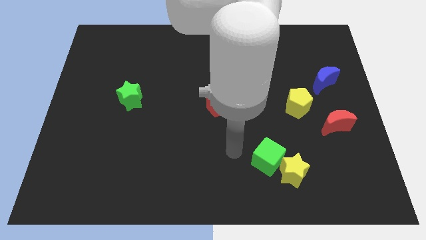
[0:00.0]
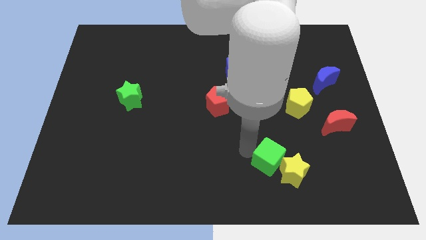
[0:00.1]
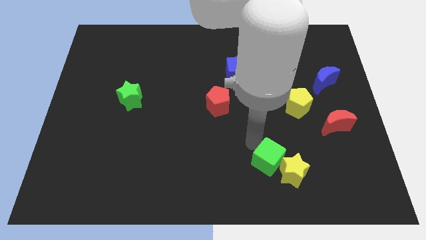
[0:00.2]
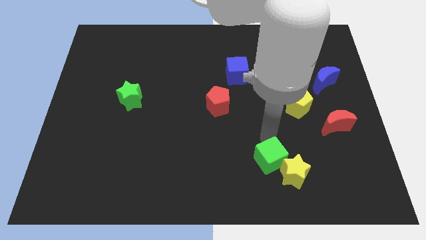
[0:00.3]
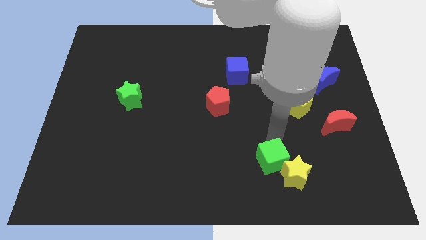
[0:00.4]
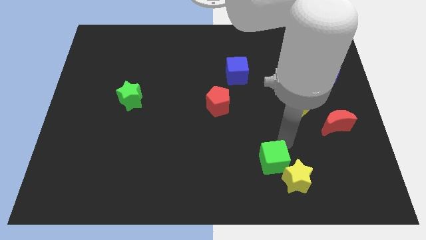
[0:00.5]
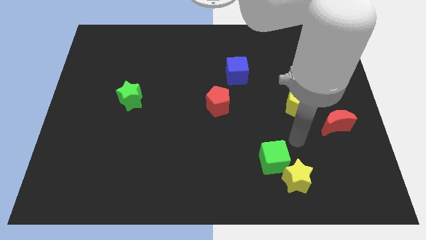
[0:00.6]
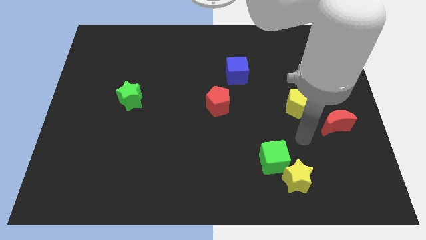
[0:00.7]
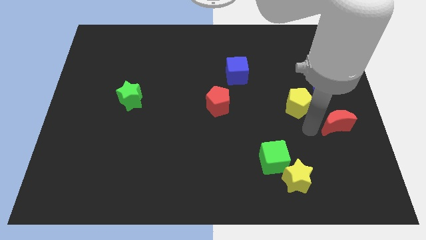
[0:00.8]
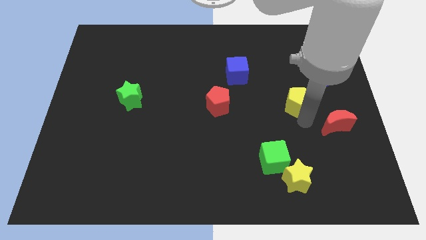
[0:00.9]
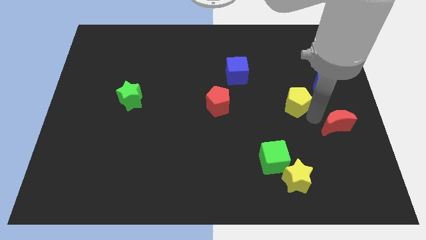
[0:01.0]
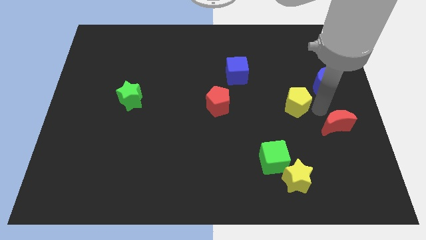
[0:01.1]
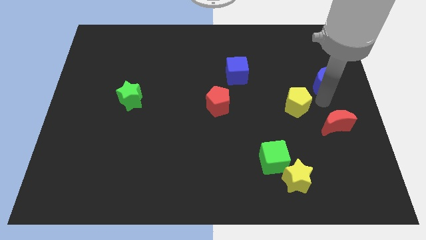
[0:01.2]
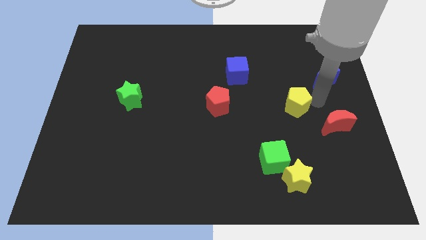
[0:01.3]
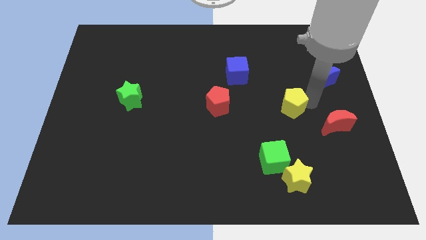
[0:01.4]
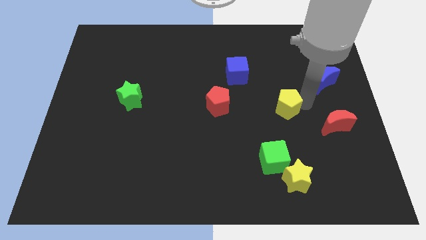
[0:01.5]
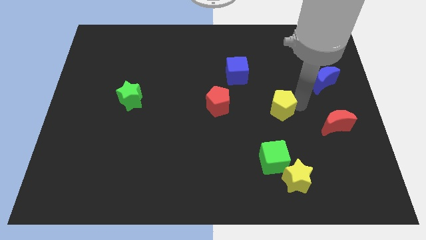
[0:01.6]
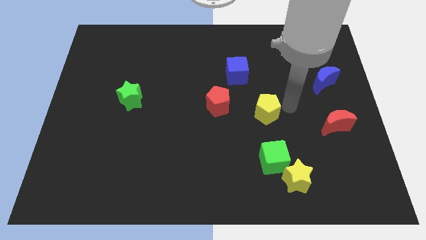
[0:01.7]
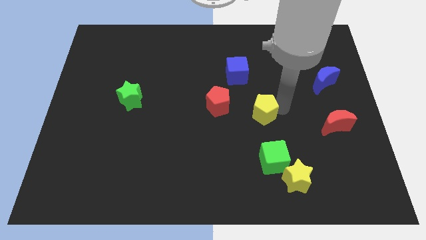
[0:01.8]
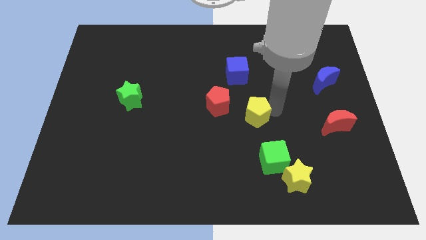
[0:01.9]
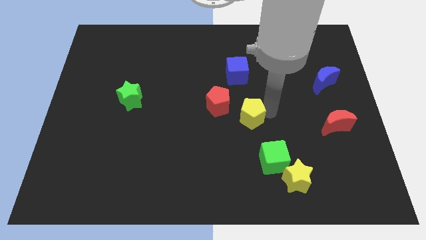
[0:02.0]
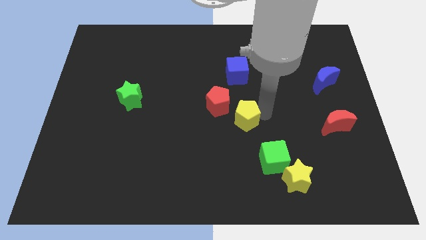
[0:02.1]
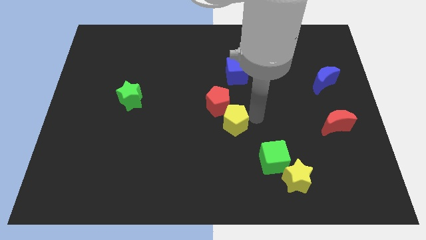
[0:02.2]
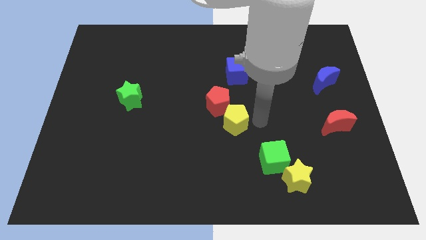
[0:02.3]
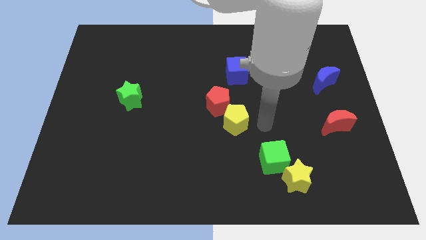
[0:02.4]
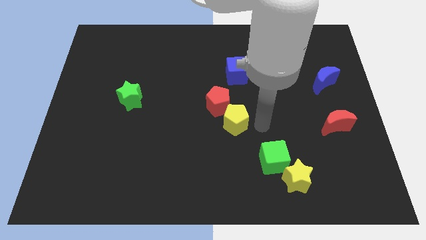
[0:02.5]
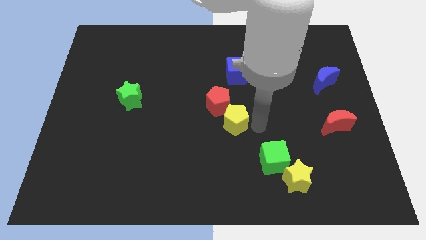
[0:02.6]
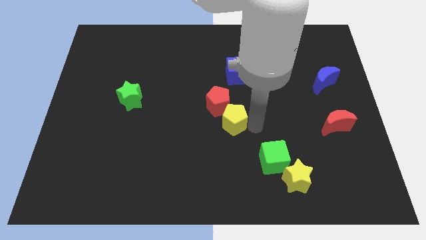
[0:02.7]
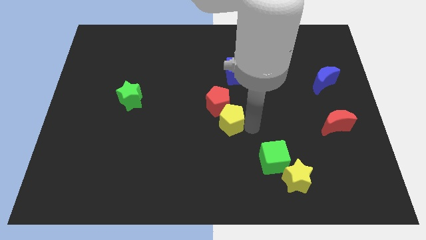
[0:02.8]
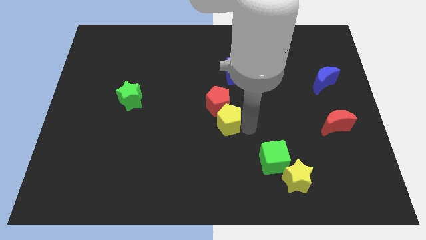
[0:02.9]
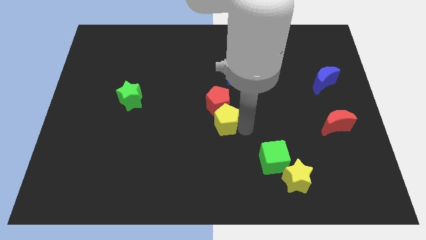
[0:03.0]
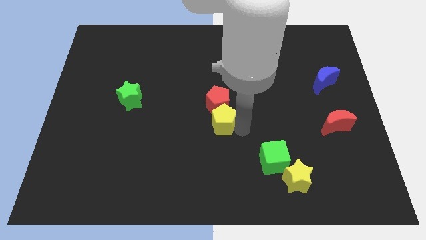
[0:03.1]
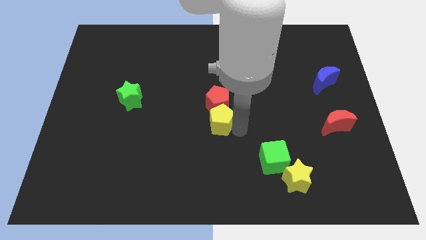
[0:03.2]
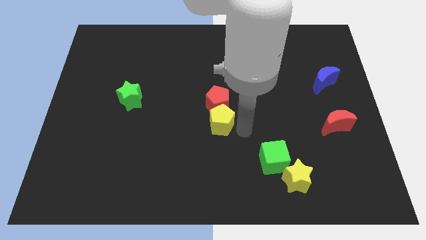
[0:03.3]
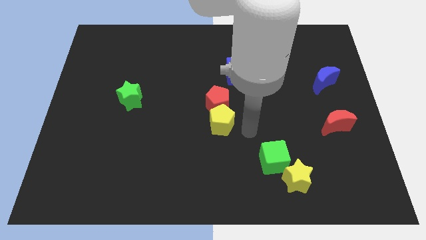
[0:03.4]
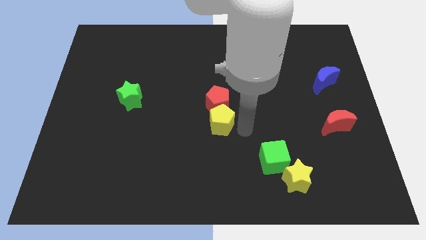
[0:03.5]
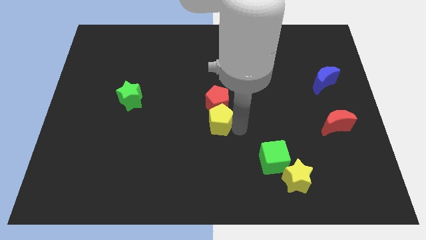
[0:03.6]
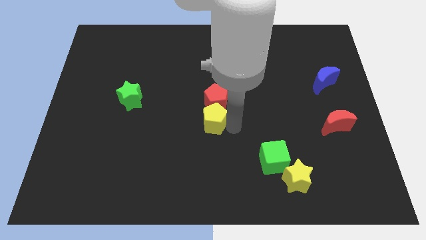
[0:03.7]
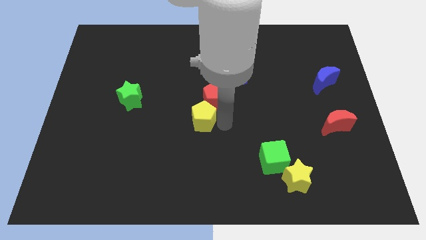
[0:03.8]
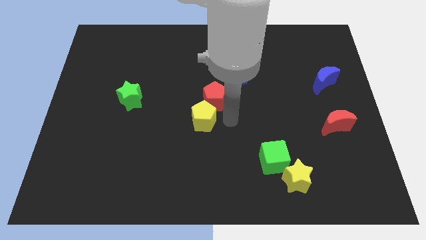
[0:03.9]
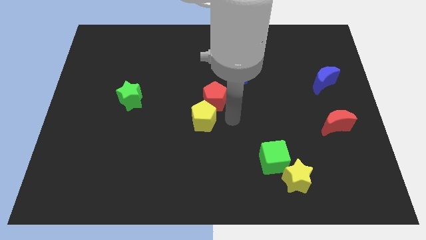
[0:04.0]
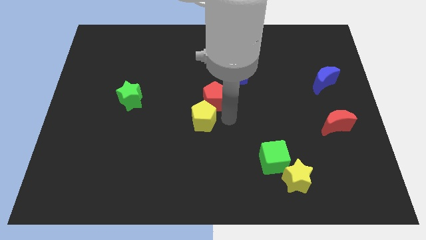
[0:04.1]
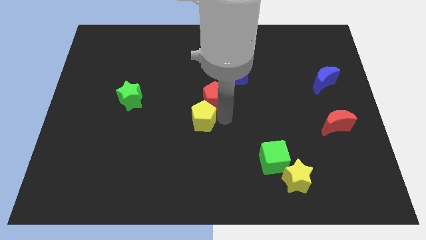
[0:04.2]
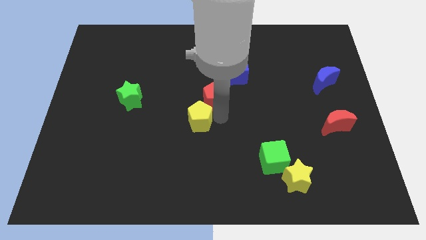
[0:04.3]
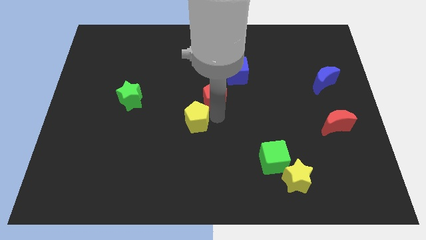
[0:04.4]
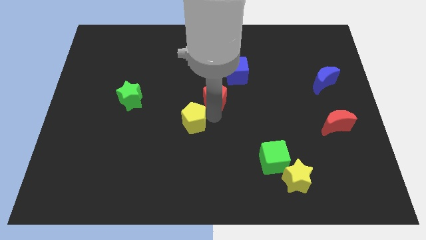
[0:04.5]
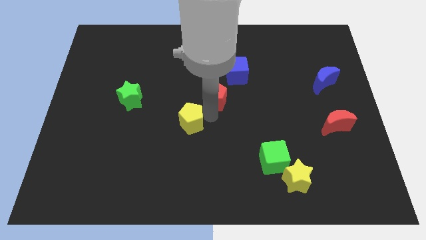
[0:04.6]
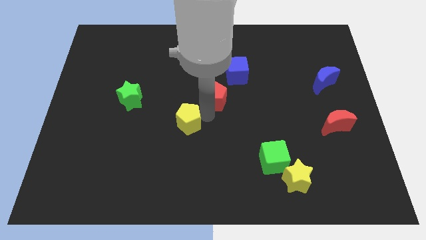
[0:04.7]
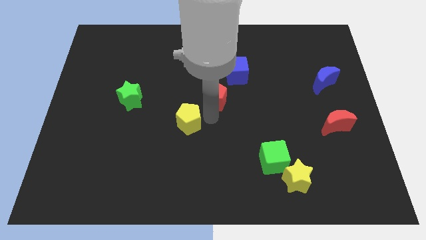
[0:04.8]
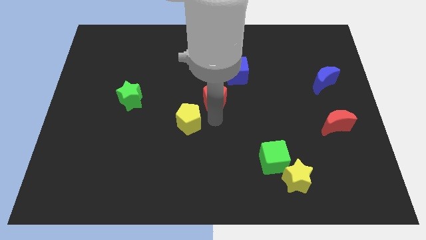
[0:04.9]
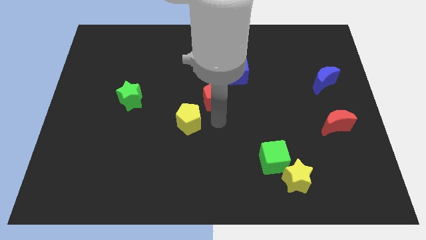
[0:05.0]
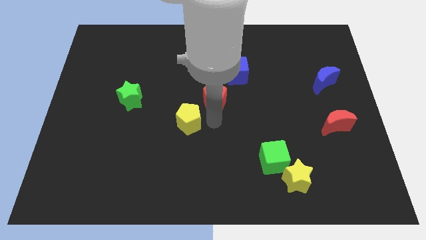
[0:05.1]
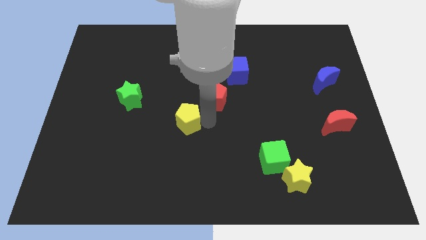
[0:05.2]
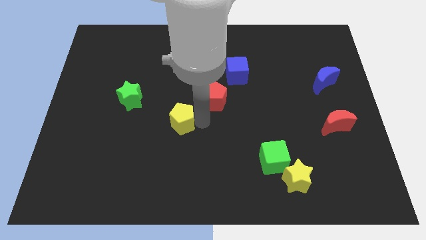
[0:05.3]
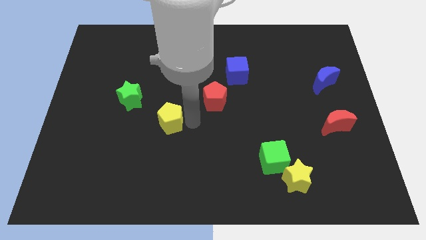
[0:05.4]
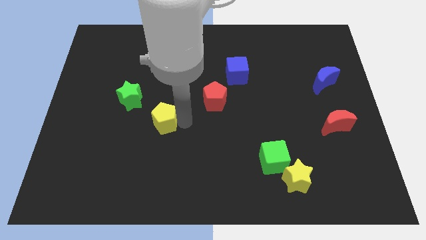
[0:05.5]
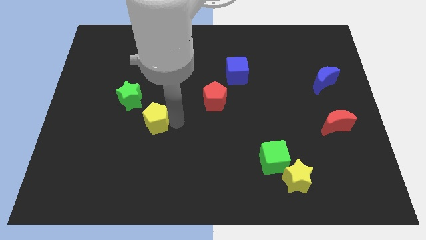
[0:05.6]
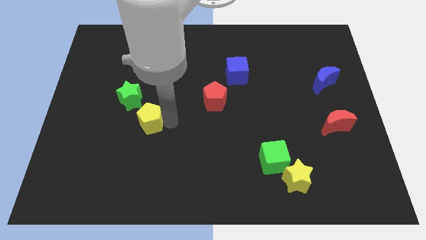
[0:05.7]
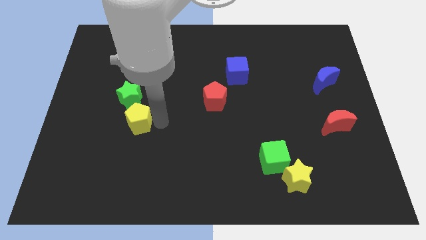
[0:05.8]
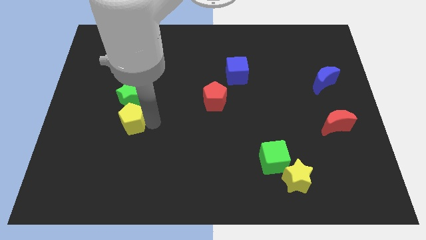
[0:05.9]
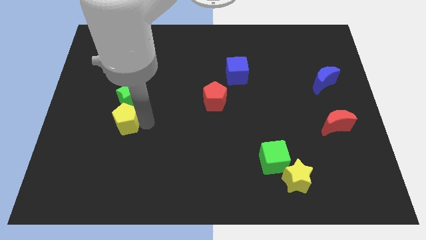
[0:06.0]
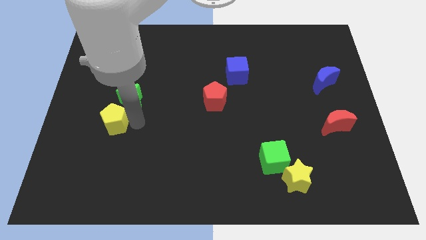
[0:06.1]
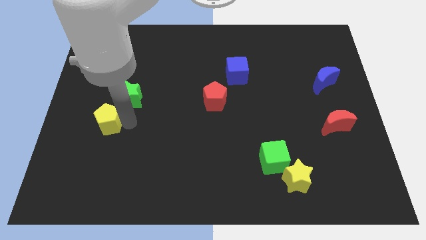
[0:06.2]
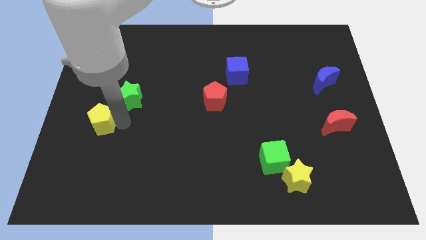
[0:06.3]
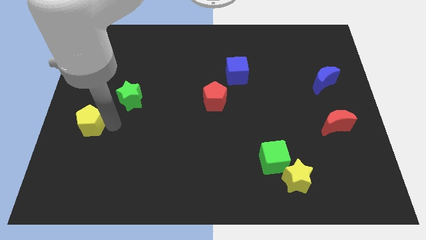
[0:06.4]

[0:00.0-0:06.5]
slide the yellow pentagon to the left side of the board
